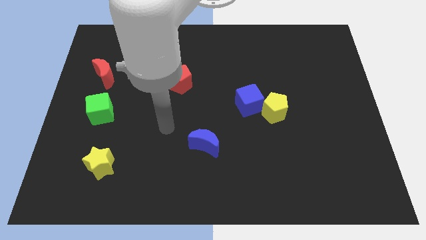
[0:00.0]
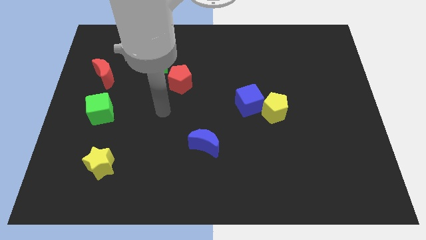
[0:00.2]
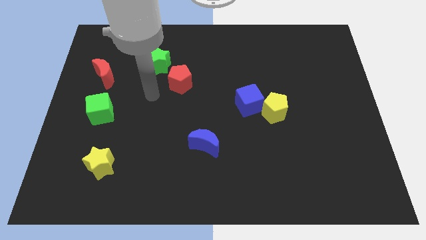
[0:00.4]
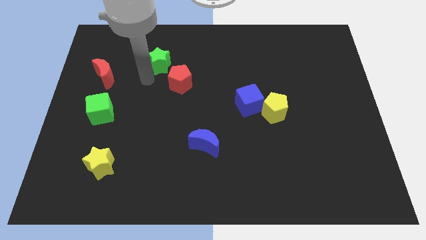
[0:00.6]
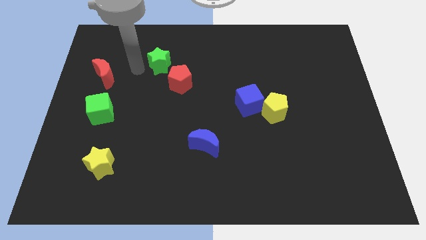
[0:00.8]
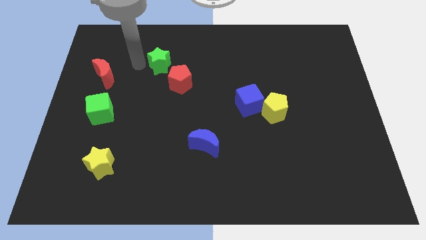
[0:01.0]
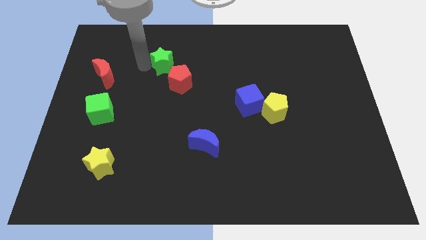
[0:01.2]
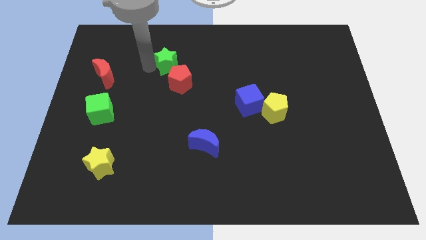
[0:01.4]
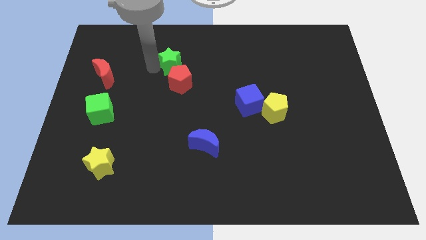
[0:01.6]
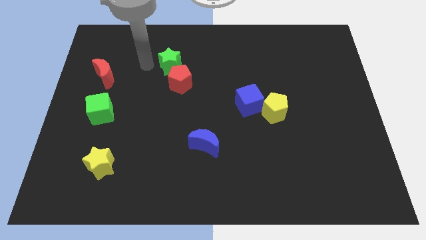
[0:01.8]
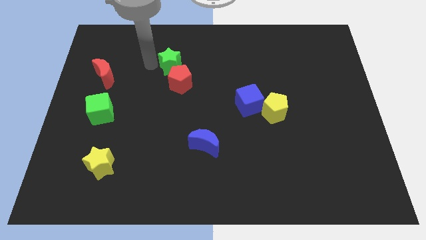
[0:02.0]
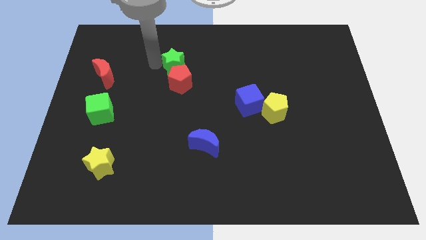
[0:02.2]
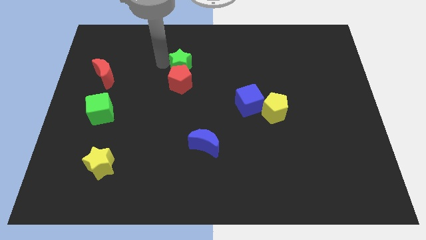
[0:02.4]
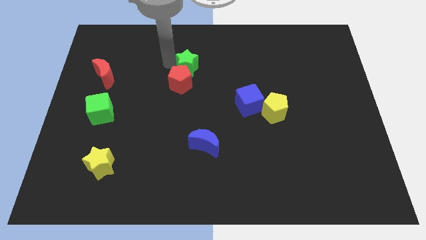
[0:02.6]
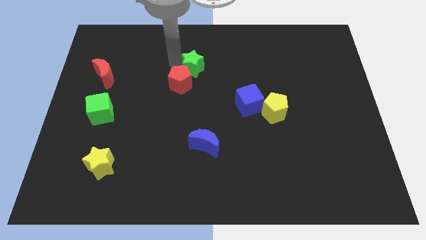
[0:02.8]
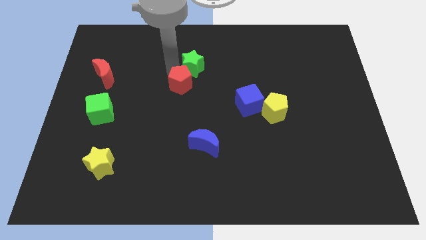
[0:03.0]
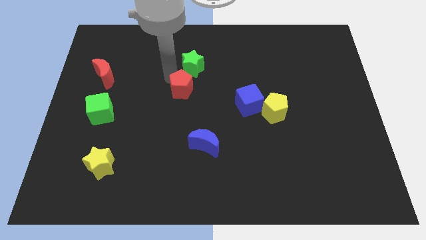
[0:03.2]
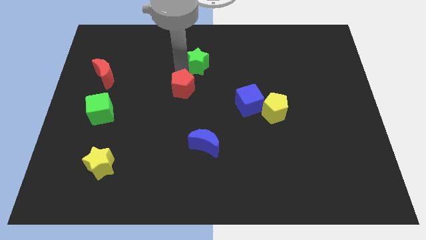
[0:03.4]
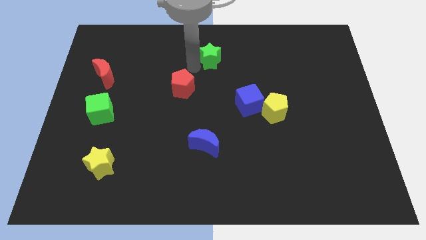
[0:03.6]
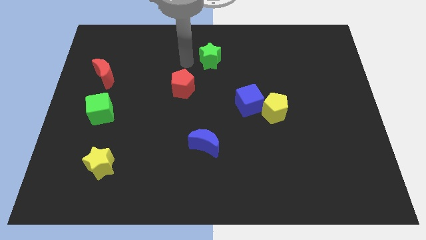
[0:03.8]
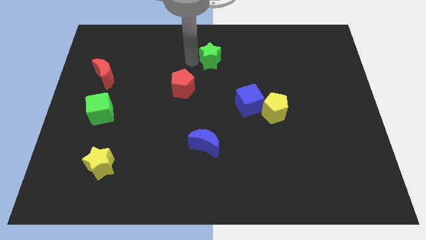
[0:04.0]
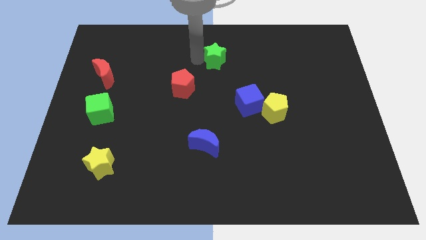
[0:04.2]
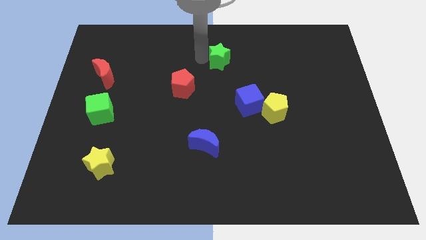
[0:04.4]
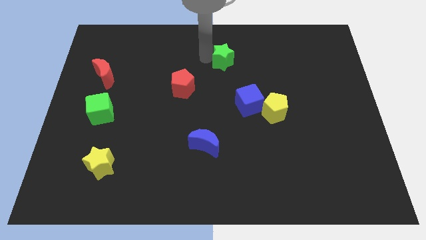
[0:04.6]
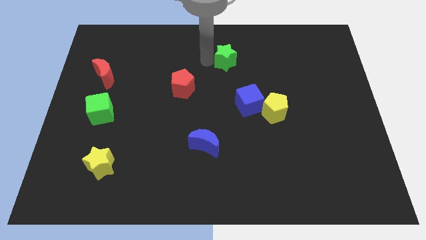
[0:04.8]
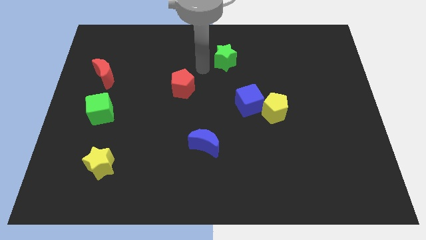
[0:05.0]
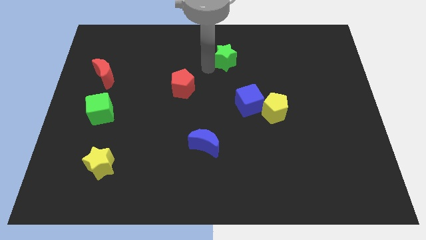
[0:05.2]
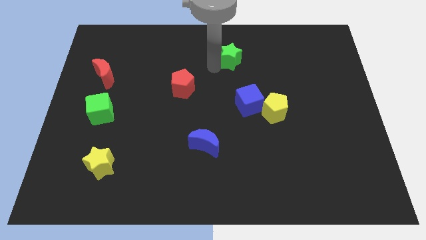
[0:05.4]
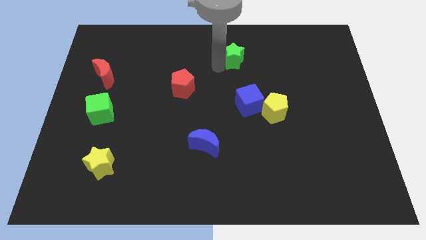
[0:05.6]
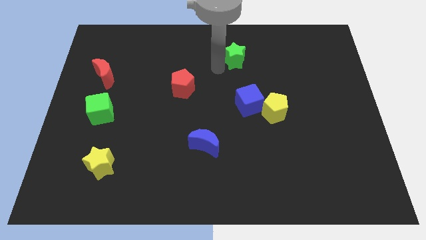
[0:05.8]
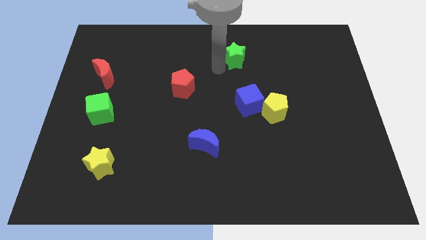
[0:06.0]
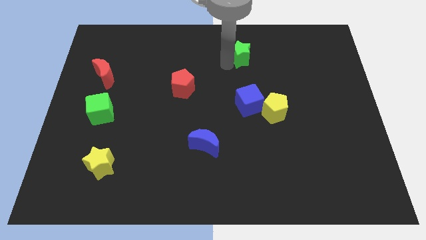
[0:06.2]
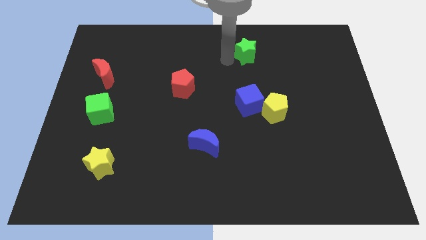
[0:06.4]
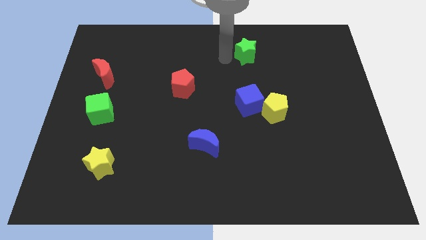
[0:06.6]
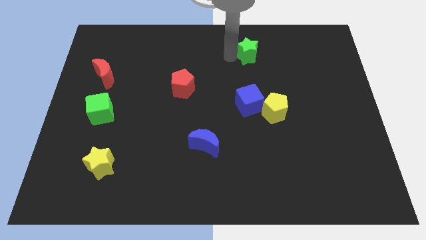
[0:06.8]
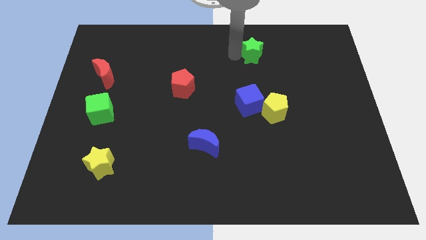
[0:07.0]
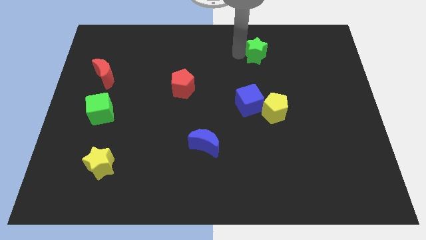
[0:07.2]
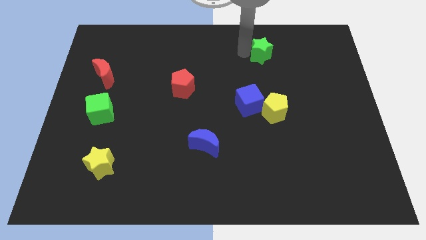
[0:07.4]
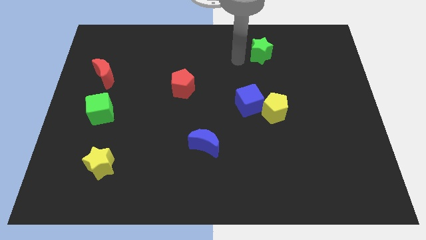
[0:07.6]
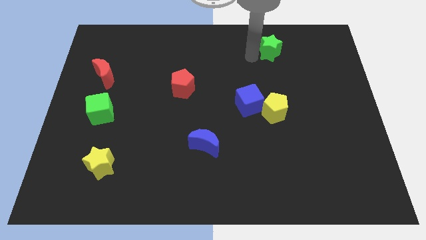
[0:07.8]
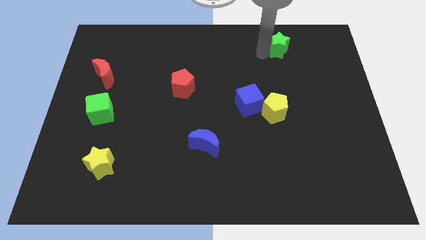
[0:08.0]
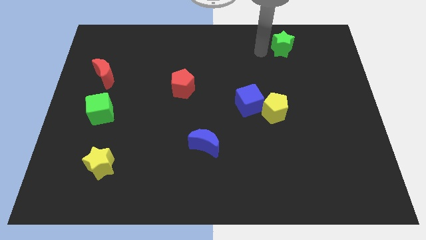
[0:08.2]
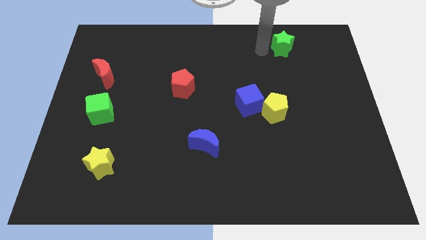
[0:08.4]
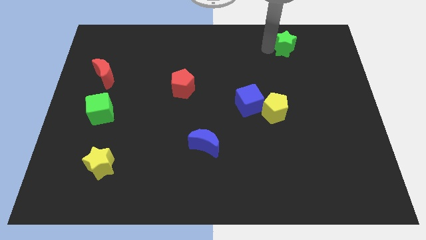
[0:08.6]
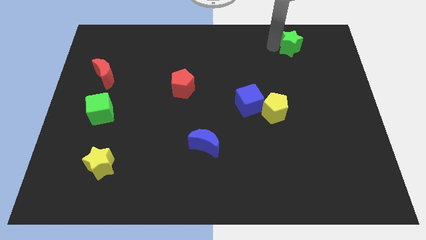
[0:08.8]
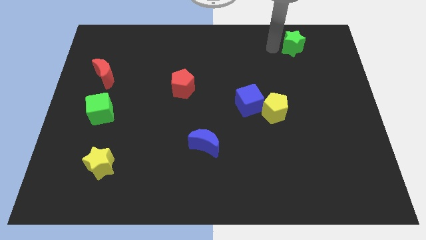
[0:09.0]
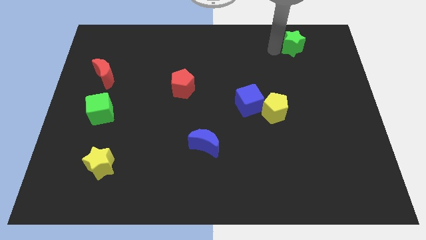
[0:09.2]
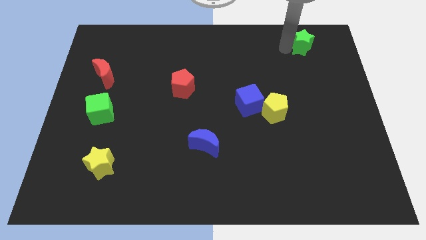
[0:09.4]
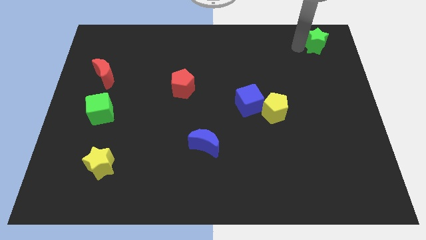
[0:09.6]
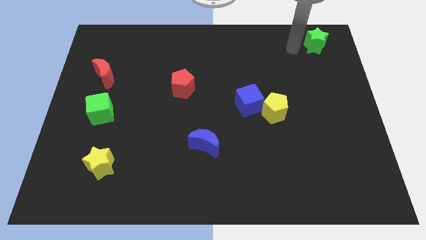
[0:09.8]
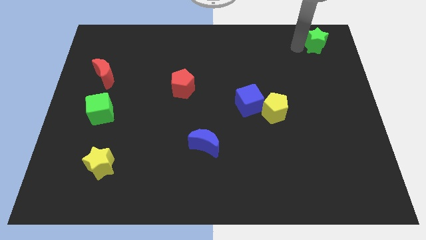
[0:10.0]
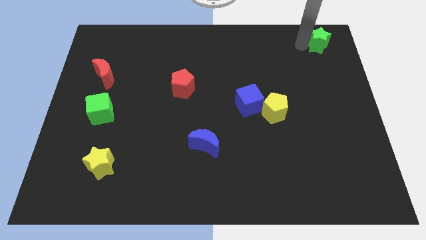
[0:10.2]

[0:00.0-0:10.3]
put the green star to the upper right corner
